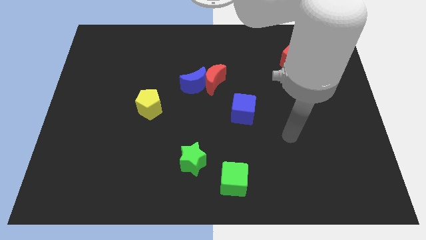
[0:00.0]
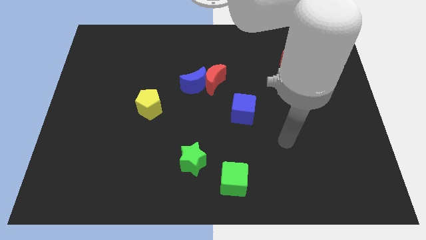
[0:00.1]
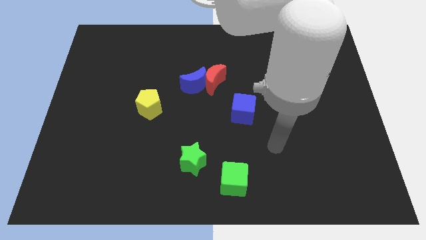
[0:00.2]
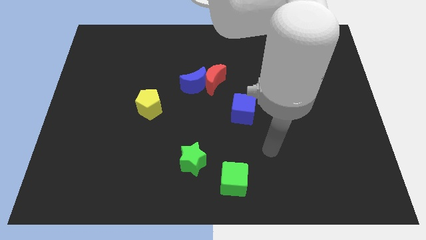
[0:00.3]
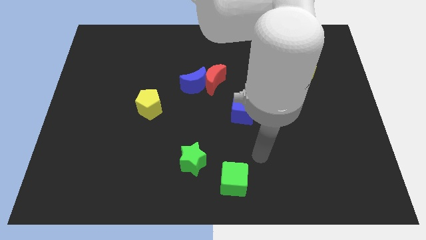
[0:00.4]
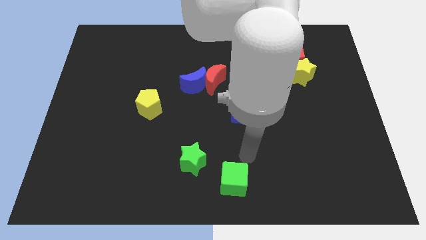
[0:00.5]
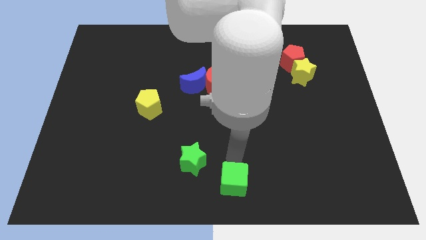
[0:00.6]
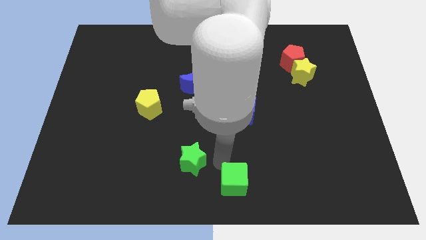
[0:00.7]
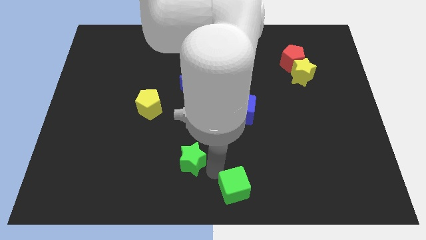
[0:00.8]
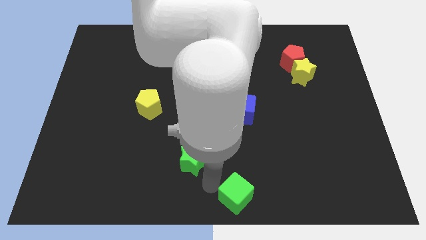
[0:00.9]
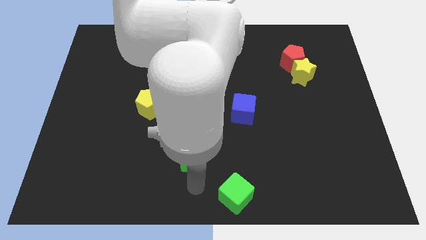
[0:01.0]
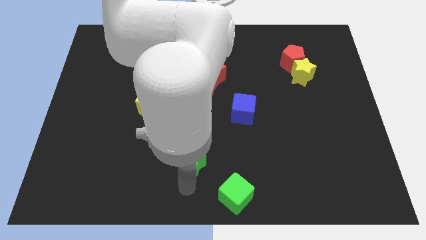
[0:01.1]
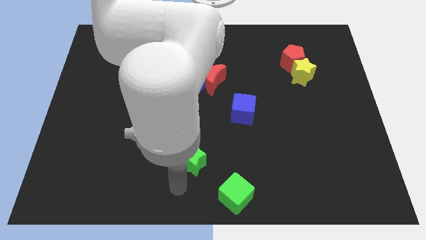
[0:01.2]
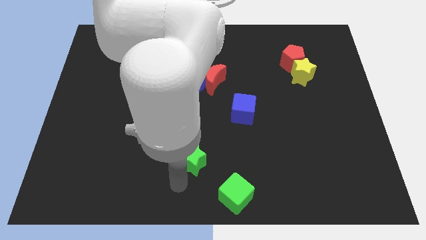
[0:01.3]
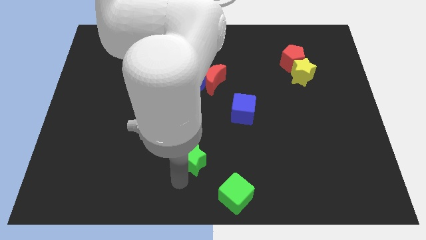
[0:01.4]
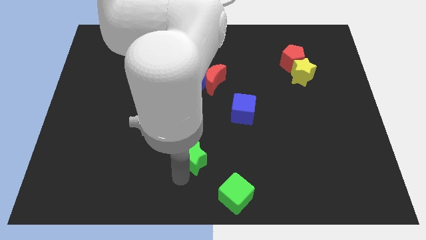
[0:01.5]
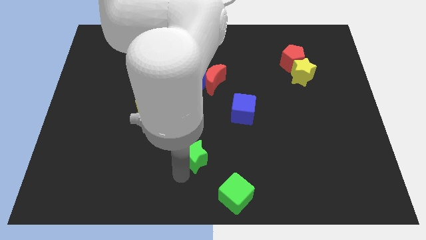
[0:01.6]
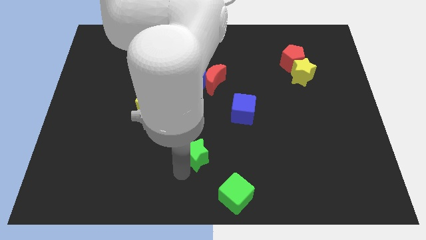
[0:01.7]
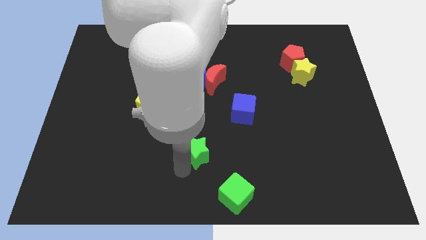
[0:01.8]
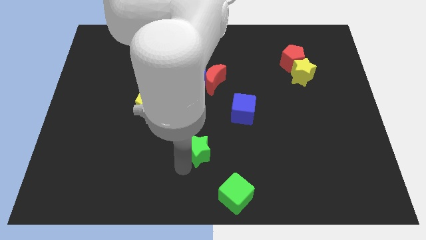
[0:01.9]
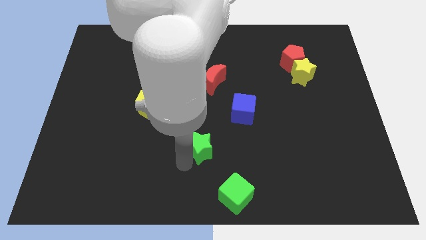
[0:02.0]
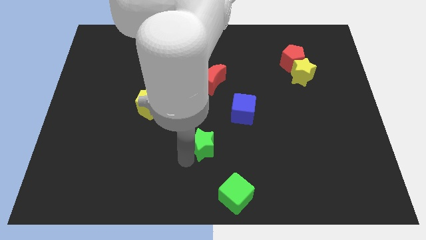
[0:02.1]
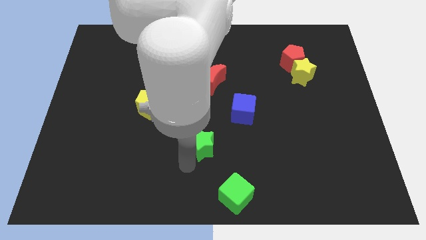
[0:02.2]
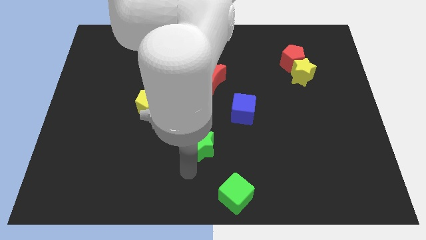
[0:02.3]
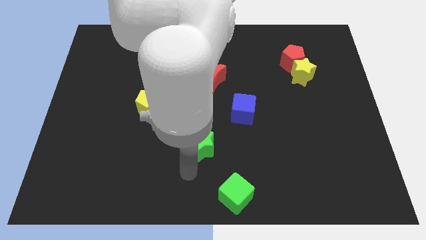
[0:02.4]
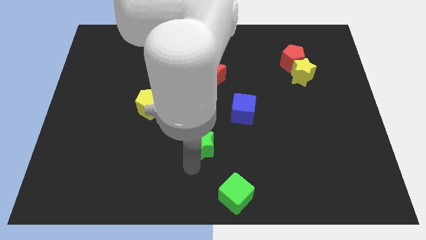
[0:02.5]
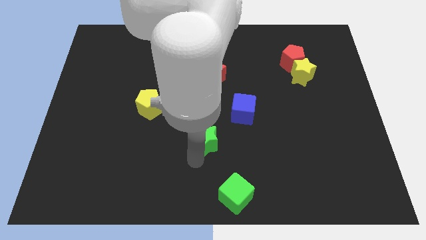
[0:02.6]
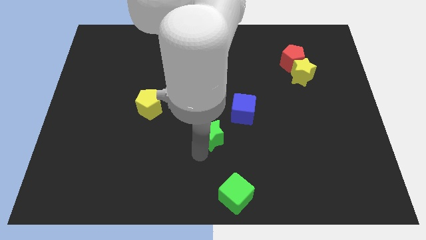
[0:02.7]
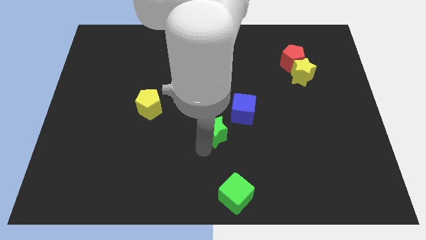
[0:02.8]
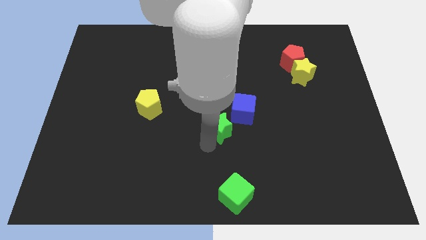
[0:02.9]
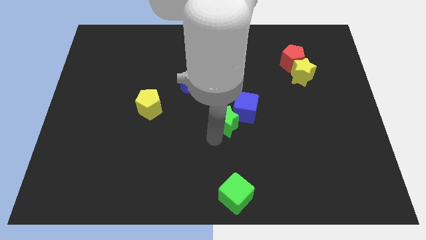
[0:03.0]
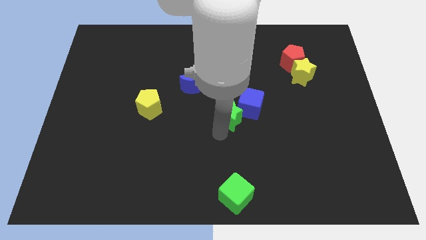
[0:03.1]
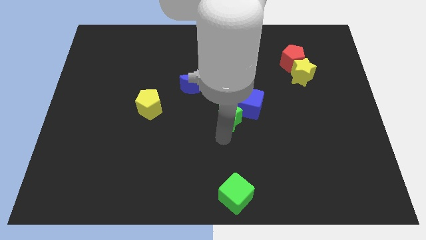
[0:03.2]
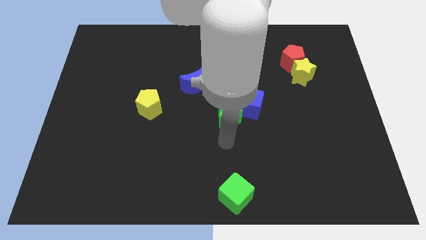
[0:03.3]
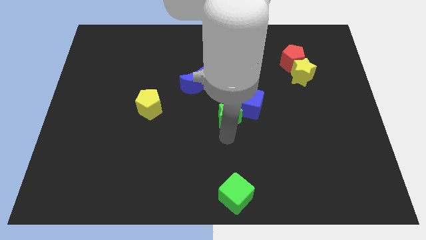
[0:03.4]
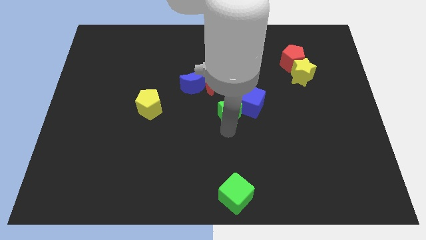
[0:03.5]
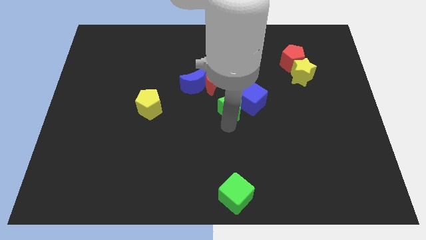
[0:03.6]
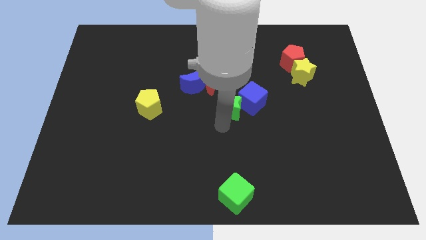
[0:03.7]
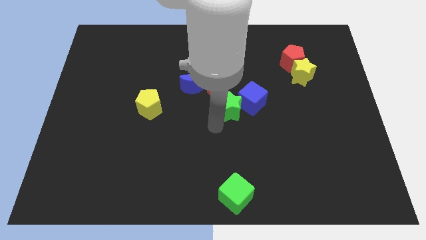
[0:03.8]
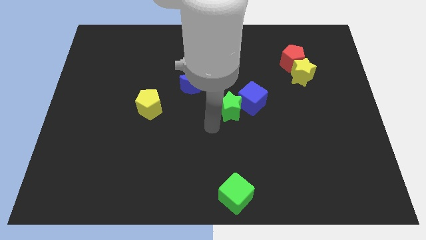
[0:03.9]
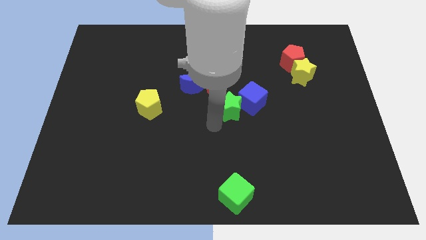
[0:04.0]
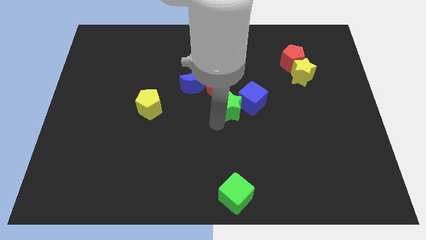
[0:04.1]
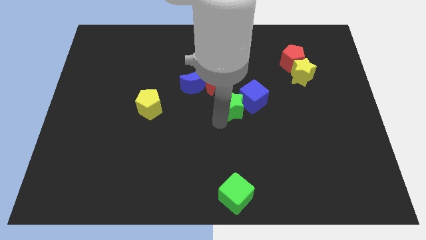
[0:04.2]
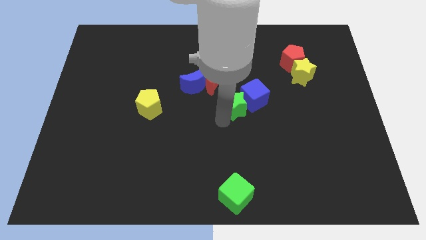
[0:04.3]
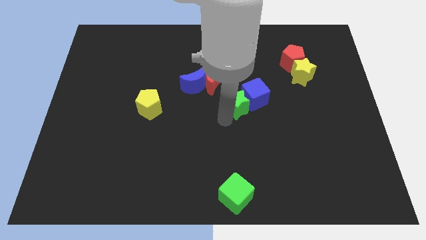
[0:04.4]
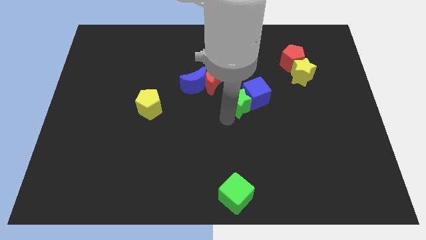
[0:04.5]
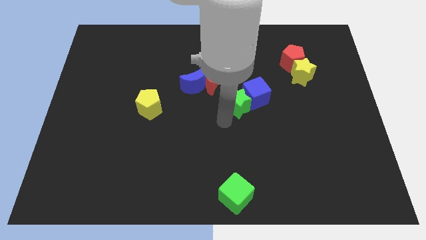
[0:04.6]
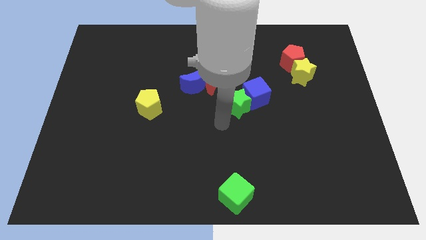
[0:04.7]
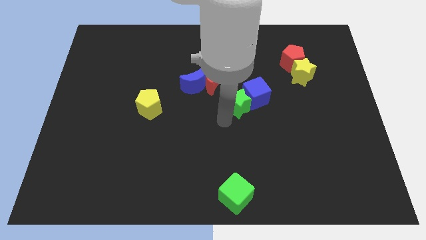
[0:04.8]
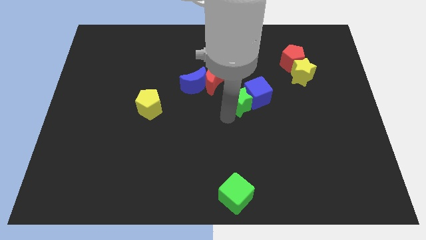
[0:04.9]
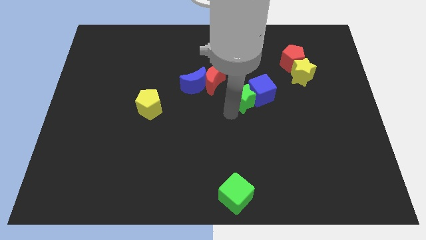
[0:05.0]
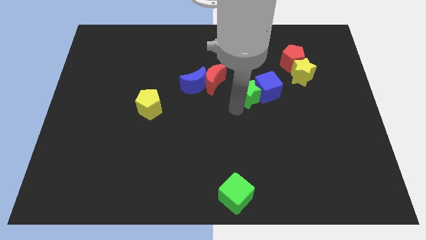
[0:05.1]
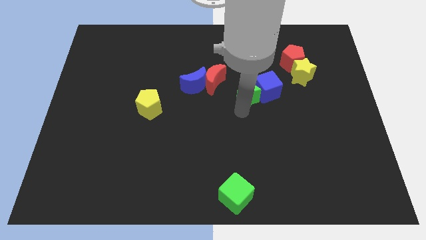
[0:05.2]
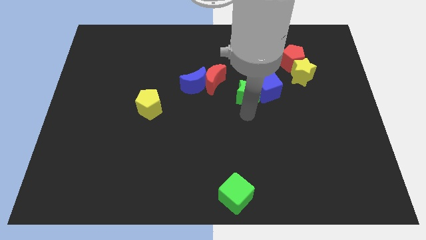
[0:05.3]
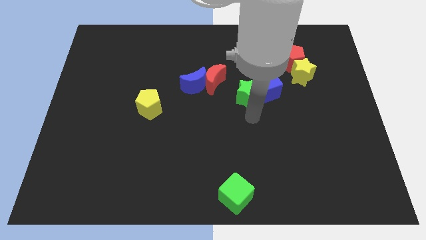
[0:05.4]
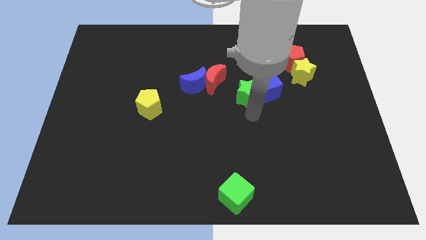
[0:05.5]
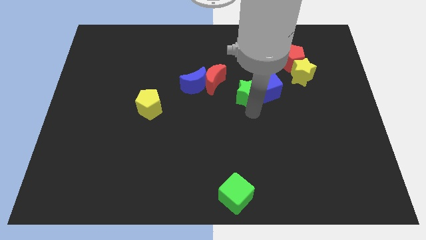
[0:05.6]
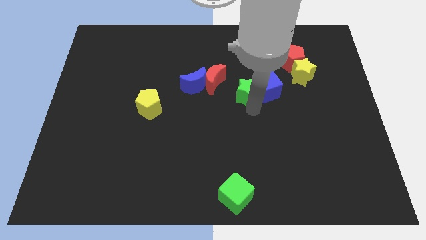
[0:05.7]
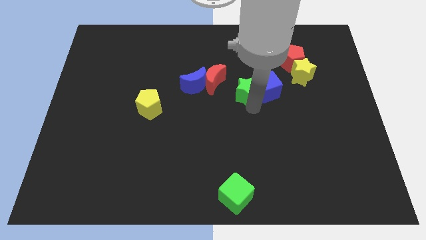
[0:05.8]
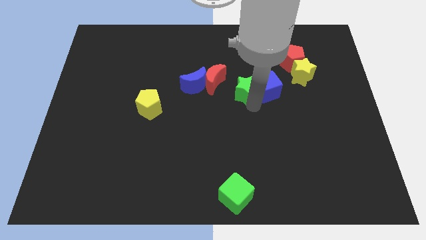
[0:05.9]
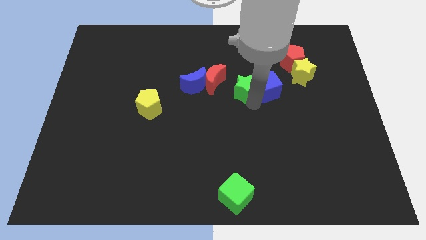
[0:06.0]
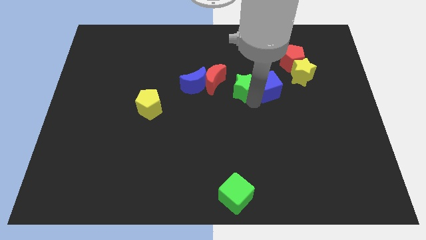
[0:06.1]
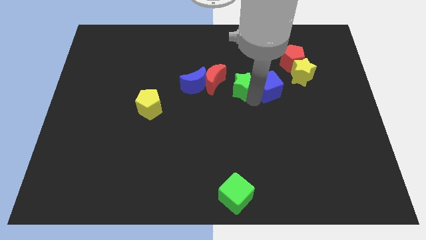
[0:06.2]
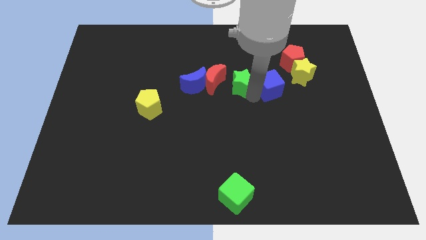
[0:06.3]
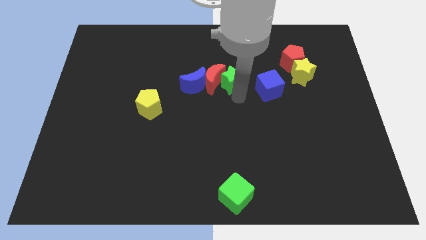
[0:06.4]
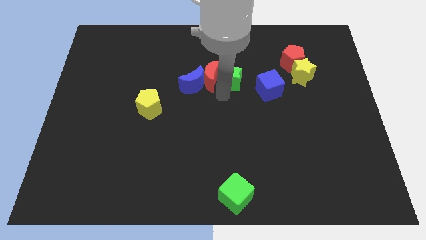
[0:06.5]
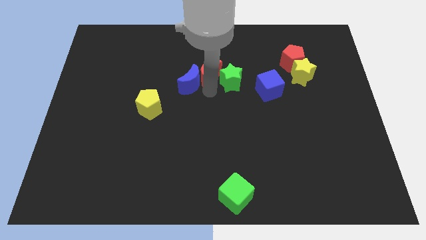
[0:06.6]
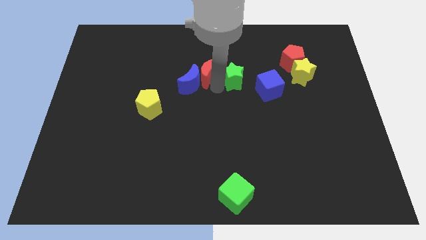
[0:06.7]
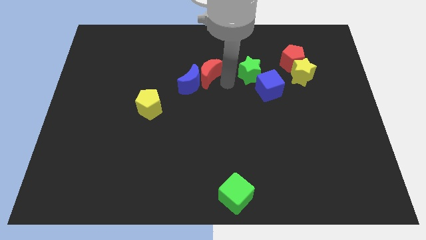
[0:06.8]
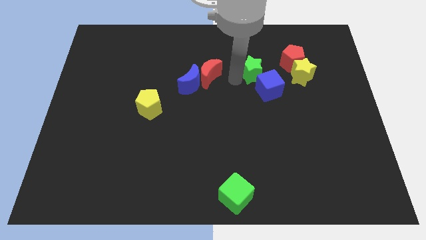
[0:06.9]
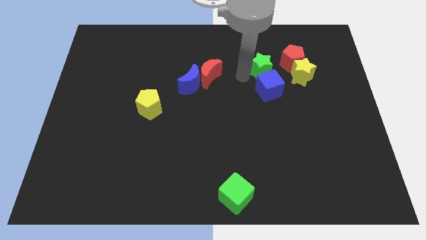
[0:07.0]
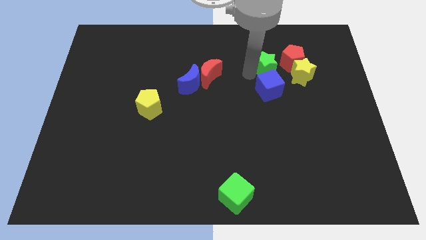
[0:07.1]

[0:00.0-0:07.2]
move the green star to the top left of the yellow star
